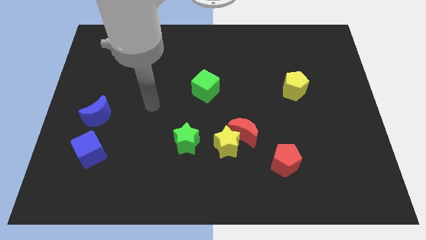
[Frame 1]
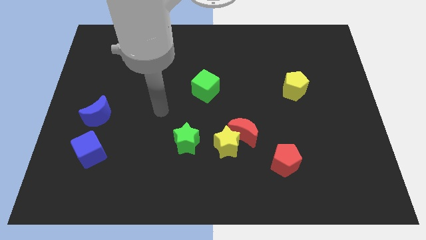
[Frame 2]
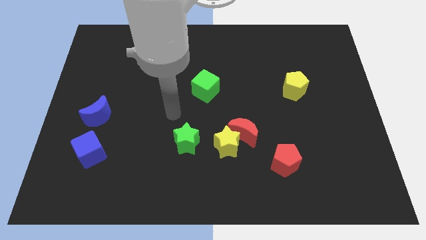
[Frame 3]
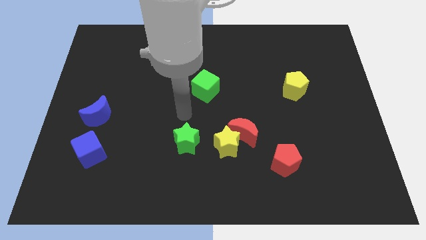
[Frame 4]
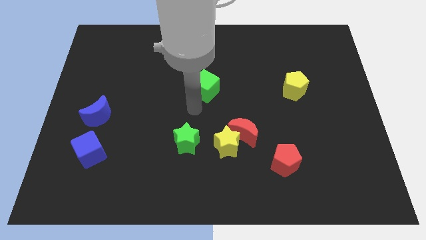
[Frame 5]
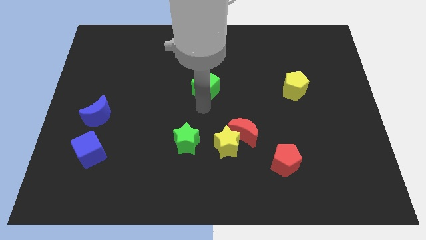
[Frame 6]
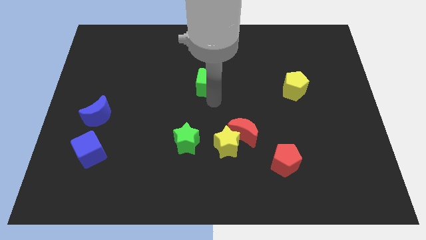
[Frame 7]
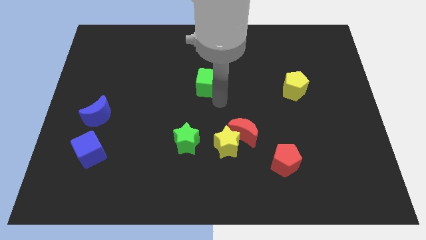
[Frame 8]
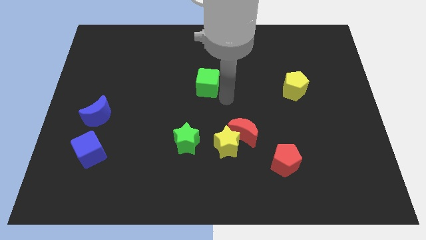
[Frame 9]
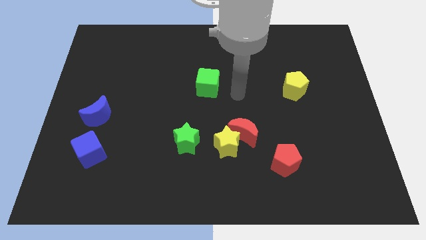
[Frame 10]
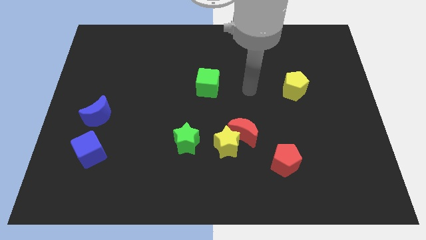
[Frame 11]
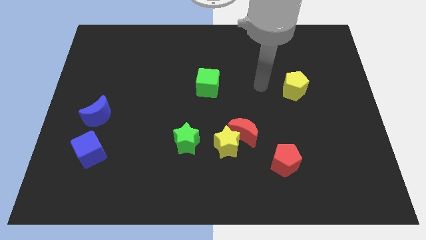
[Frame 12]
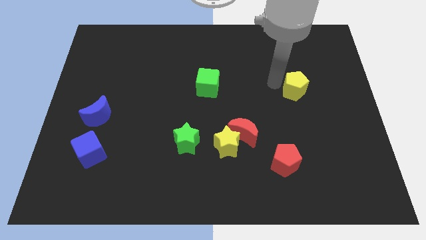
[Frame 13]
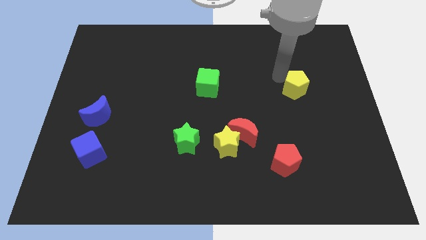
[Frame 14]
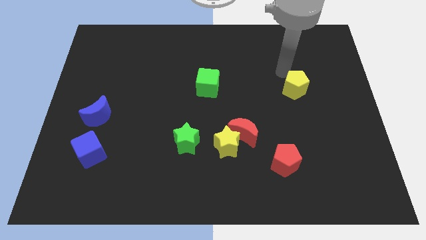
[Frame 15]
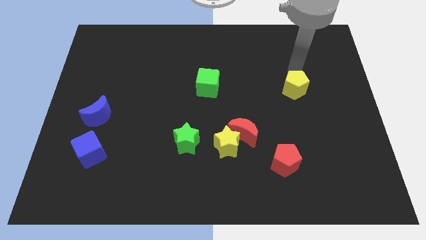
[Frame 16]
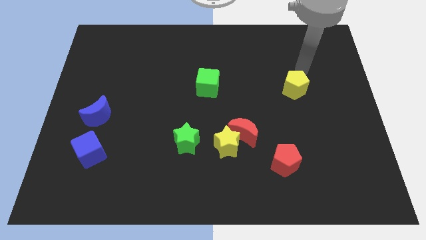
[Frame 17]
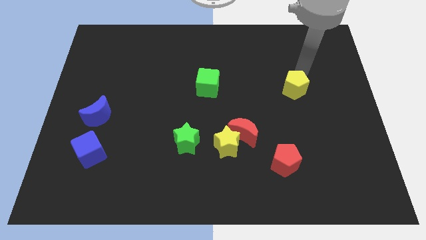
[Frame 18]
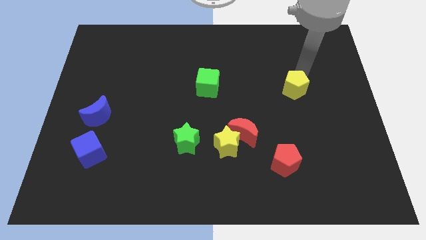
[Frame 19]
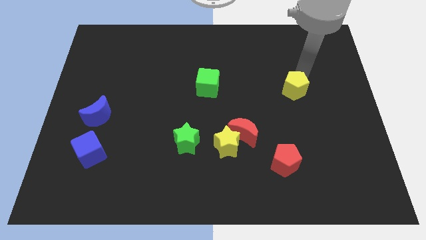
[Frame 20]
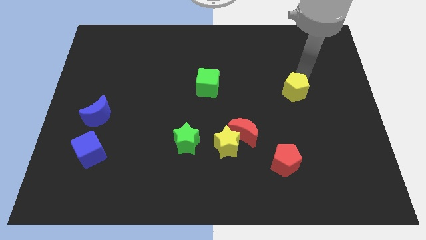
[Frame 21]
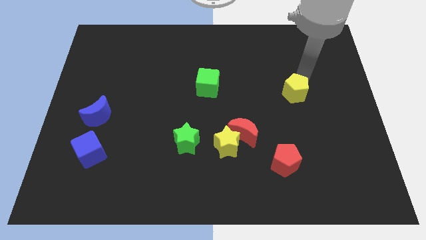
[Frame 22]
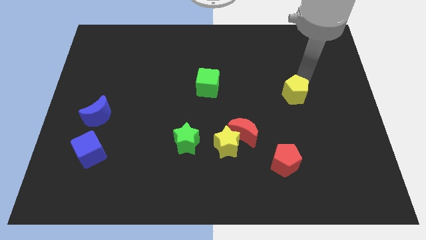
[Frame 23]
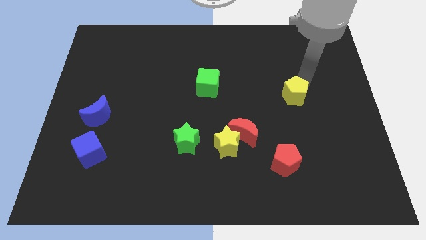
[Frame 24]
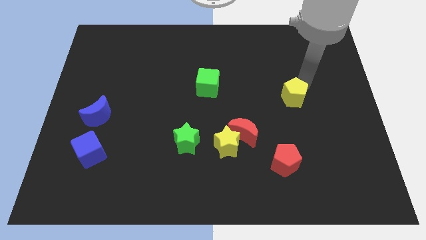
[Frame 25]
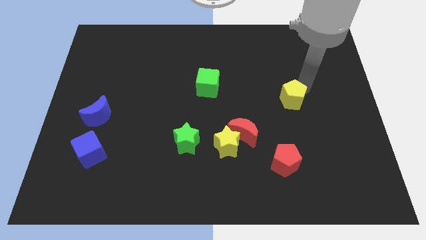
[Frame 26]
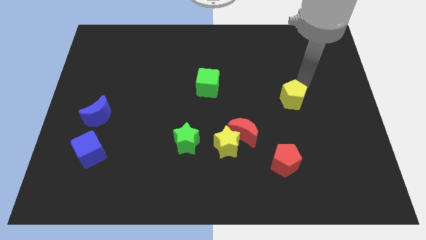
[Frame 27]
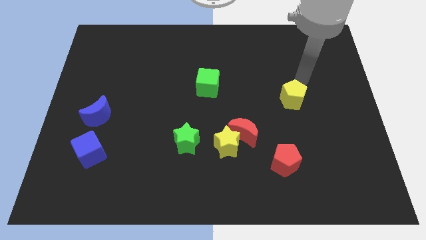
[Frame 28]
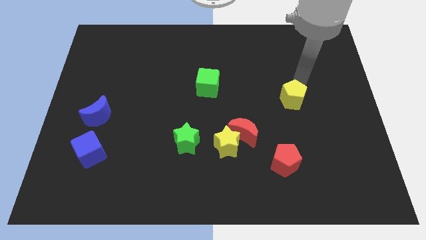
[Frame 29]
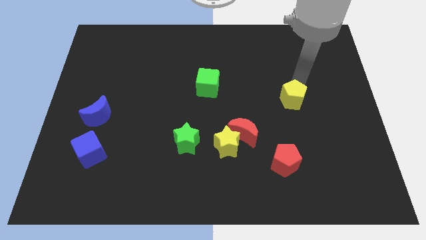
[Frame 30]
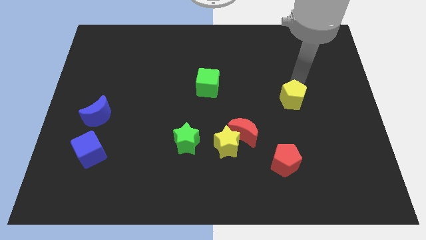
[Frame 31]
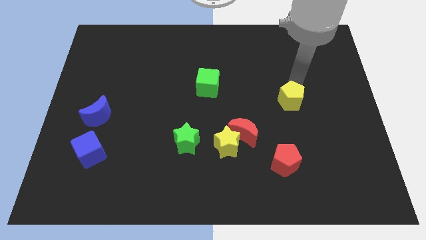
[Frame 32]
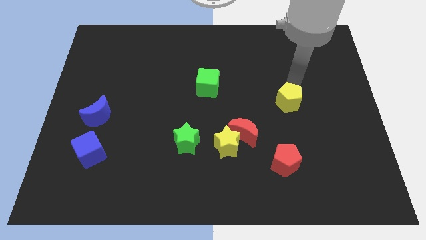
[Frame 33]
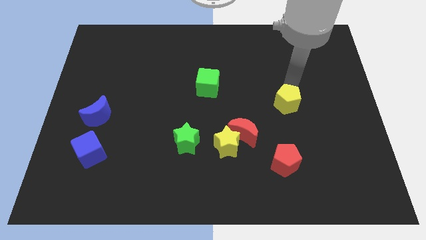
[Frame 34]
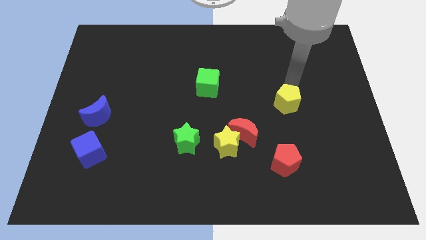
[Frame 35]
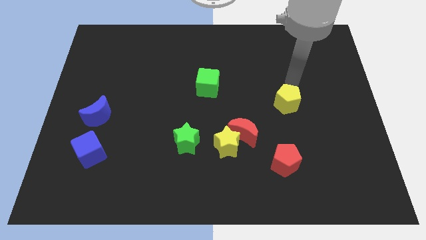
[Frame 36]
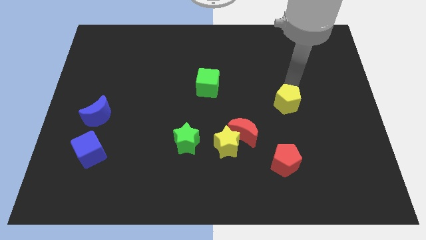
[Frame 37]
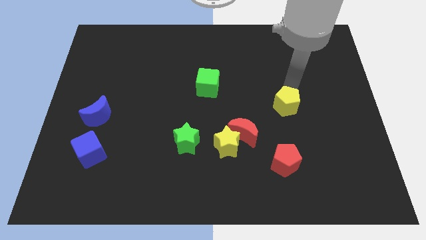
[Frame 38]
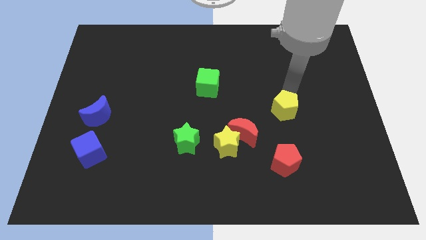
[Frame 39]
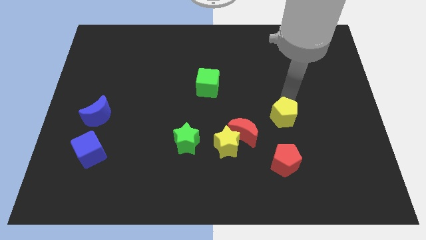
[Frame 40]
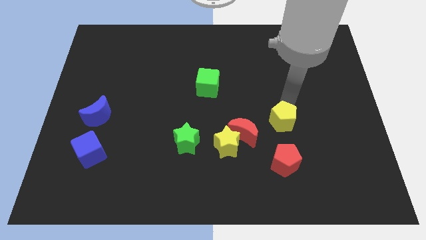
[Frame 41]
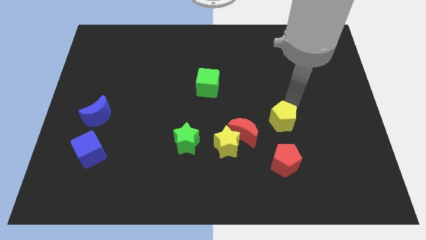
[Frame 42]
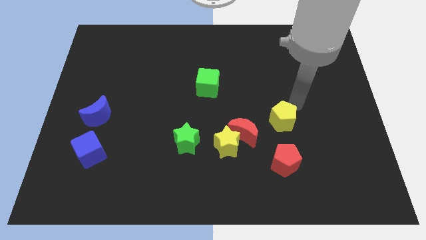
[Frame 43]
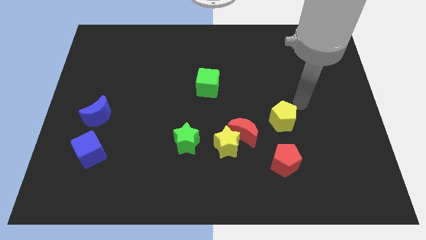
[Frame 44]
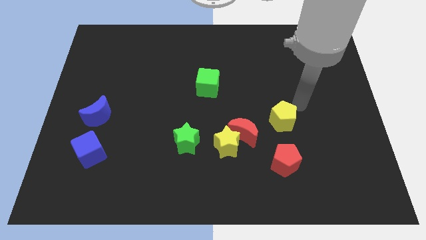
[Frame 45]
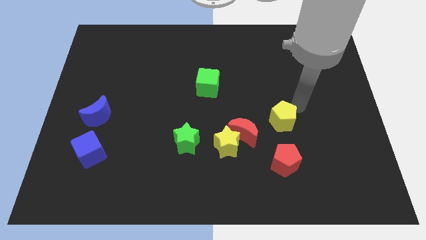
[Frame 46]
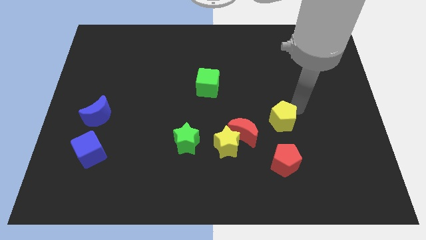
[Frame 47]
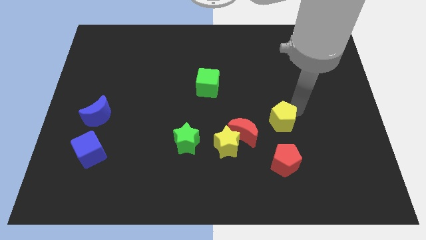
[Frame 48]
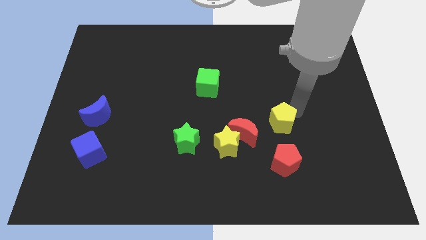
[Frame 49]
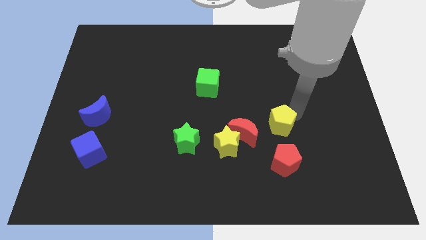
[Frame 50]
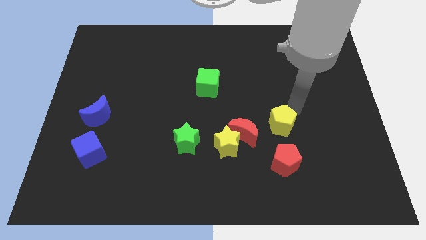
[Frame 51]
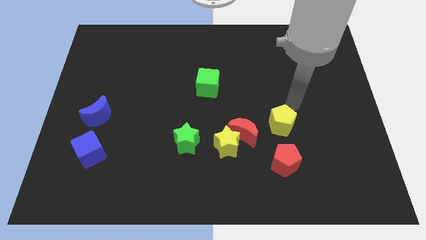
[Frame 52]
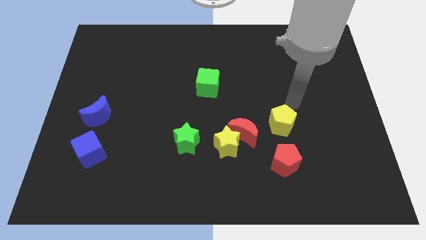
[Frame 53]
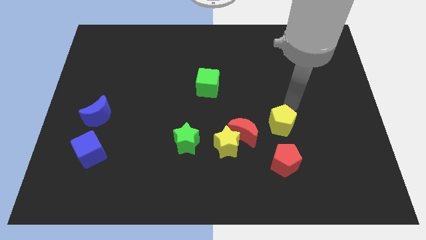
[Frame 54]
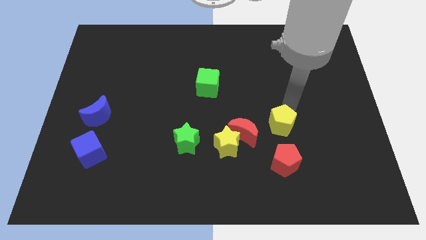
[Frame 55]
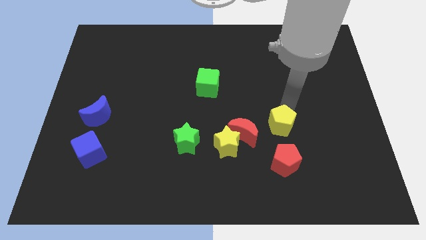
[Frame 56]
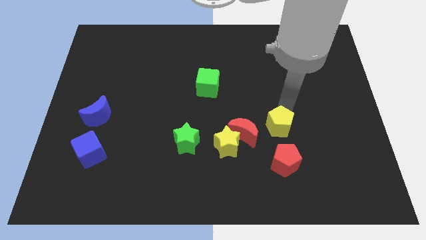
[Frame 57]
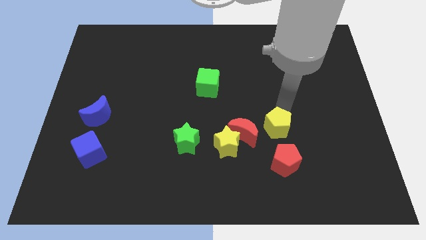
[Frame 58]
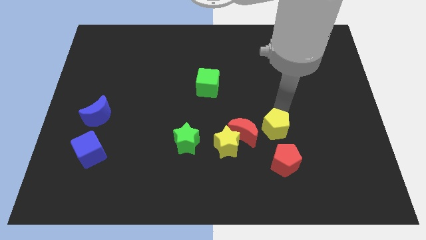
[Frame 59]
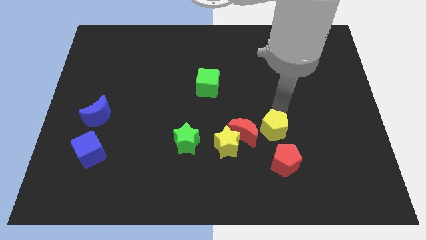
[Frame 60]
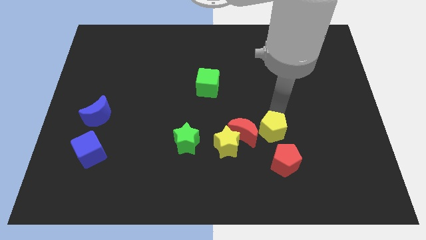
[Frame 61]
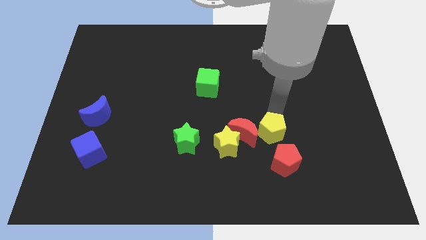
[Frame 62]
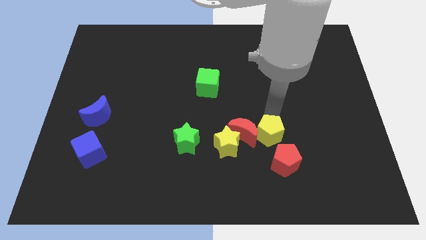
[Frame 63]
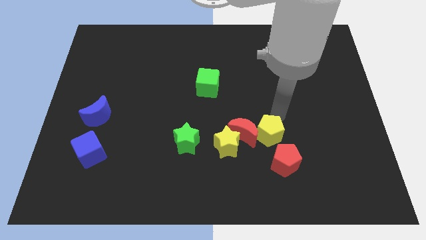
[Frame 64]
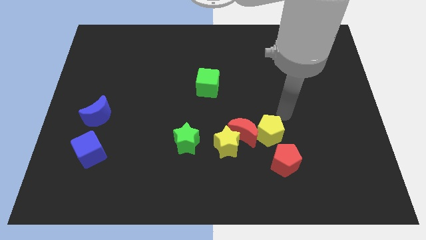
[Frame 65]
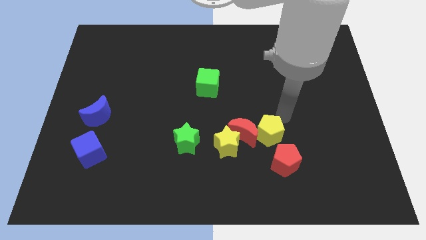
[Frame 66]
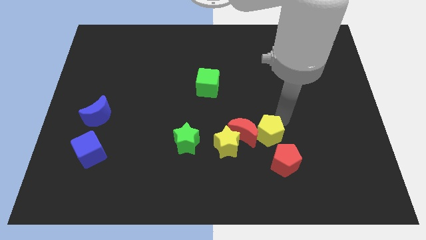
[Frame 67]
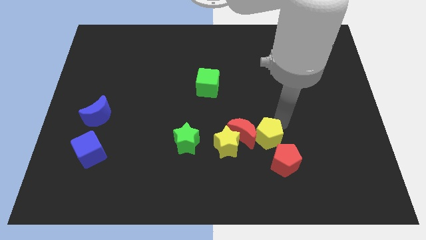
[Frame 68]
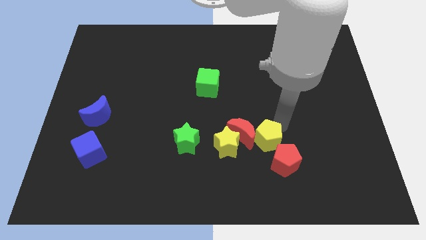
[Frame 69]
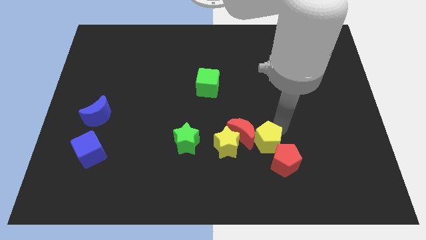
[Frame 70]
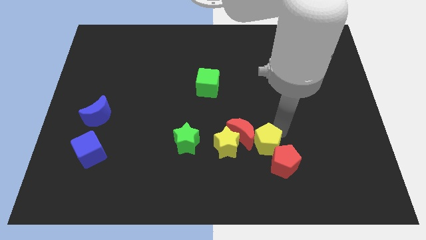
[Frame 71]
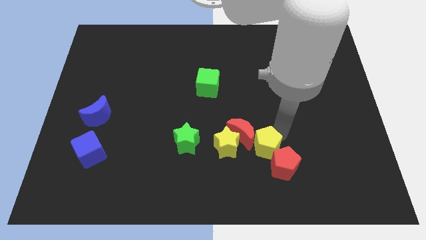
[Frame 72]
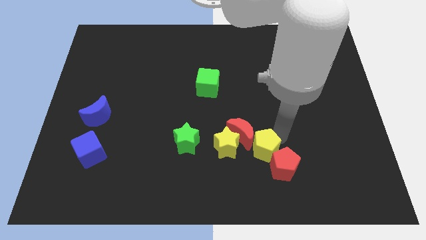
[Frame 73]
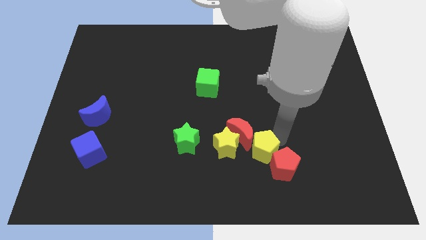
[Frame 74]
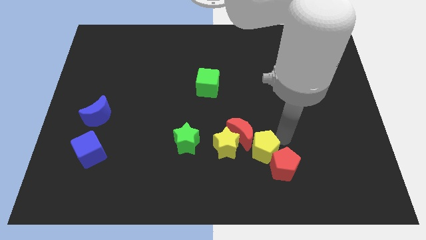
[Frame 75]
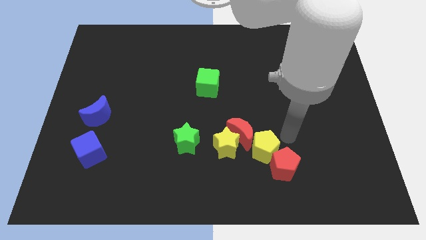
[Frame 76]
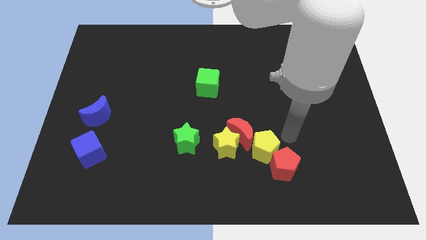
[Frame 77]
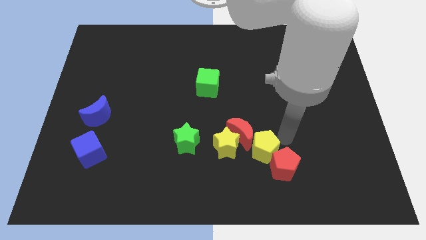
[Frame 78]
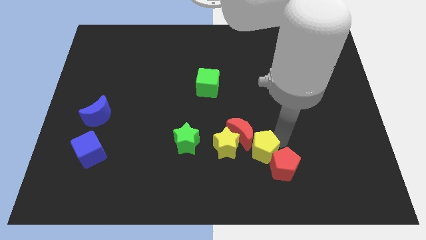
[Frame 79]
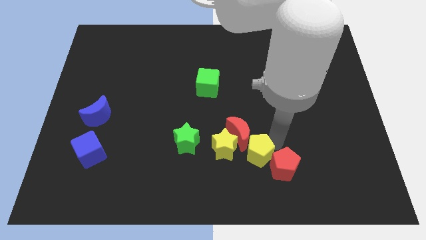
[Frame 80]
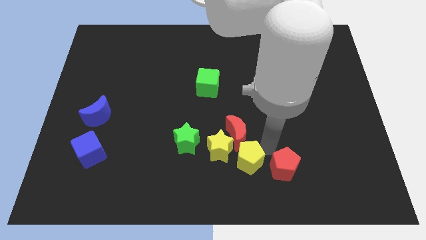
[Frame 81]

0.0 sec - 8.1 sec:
push the yellow pentagon downwards and then to the left
